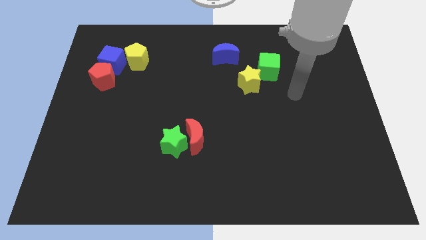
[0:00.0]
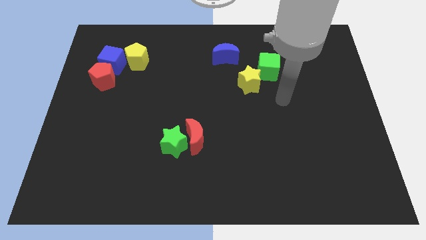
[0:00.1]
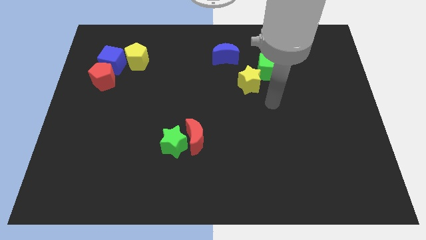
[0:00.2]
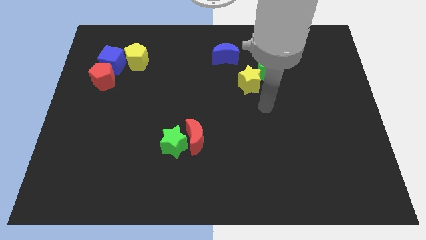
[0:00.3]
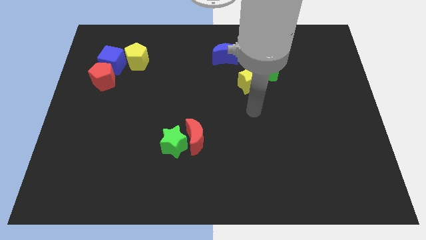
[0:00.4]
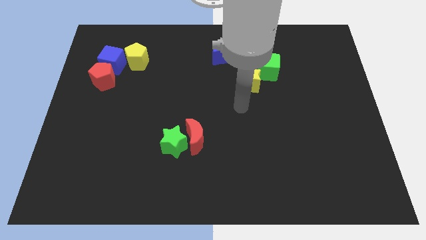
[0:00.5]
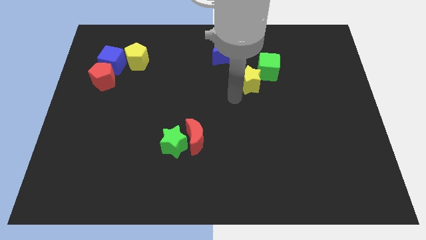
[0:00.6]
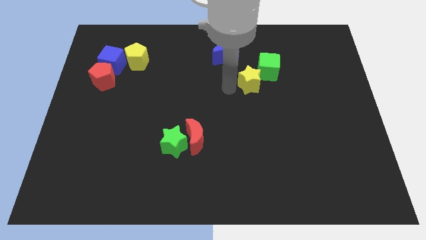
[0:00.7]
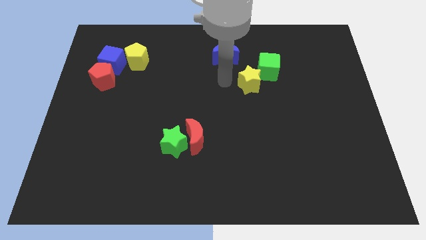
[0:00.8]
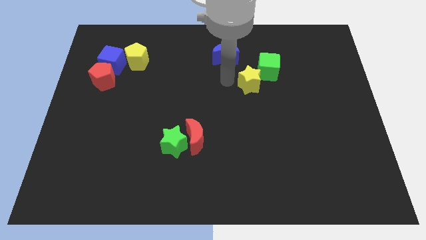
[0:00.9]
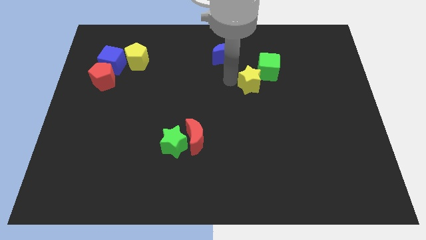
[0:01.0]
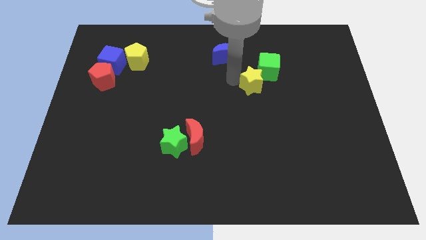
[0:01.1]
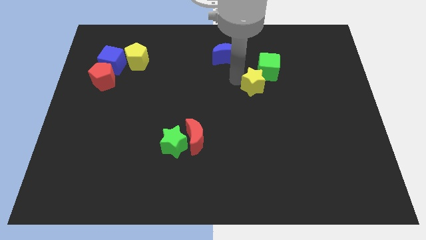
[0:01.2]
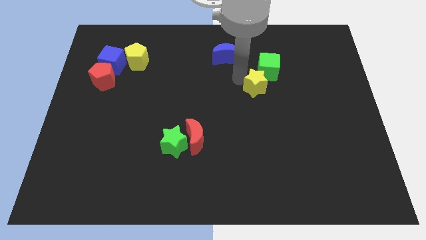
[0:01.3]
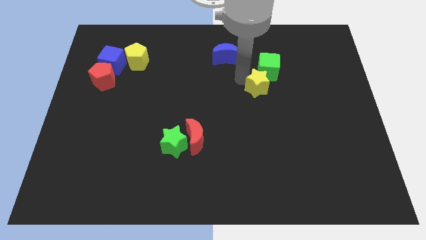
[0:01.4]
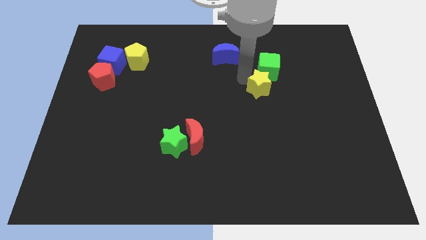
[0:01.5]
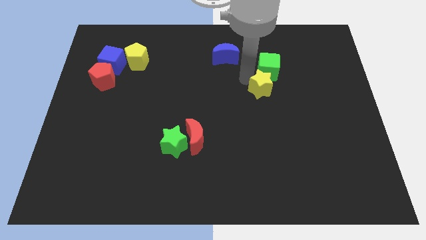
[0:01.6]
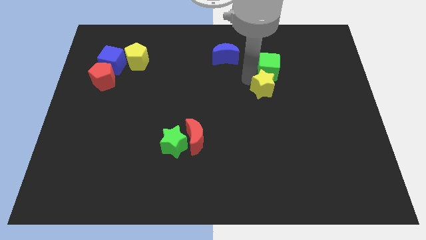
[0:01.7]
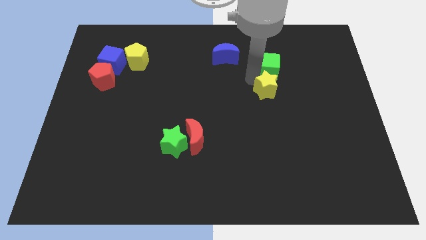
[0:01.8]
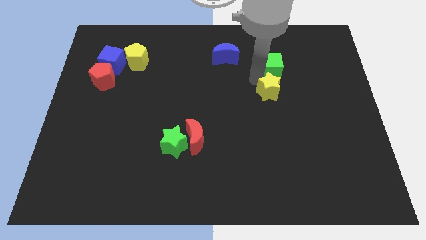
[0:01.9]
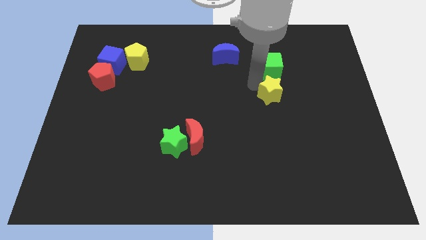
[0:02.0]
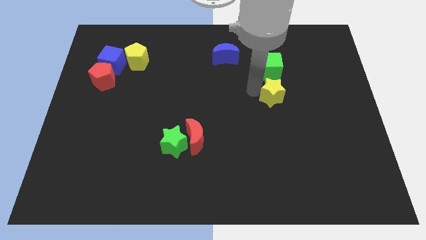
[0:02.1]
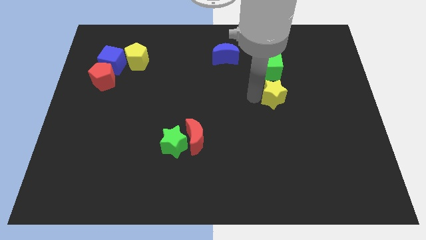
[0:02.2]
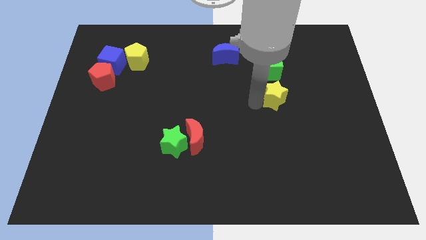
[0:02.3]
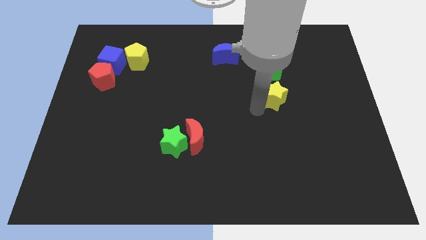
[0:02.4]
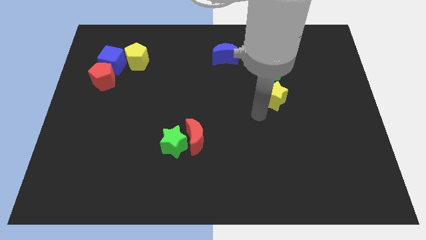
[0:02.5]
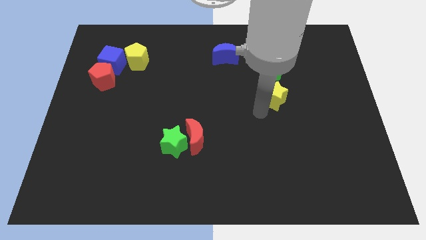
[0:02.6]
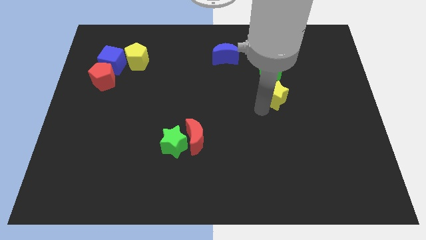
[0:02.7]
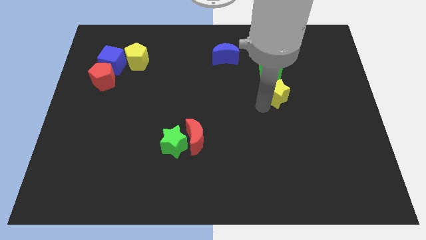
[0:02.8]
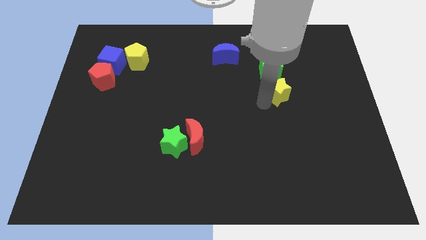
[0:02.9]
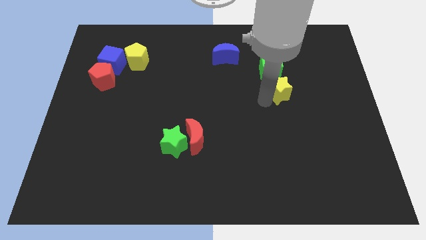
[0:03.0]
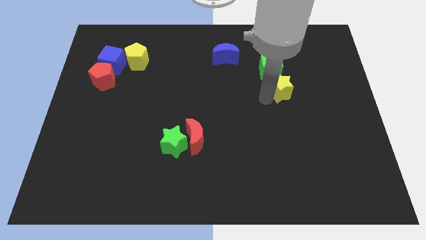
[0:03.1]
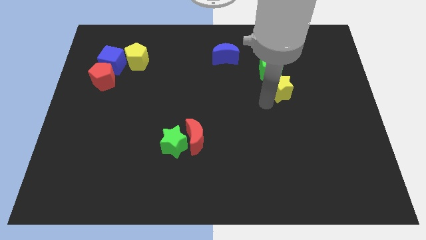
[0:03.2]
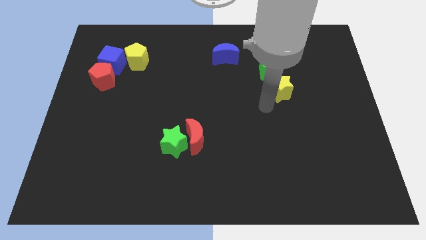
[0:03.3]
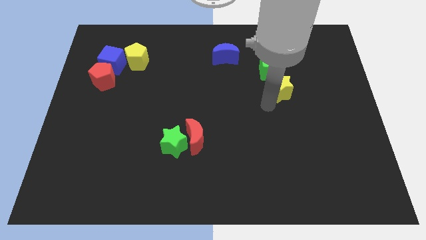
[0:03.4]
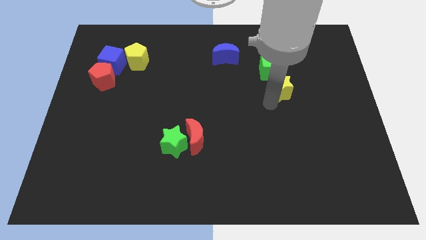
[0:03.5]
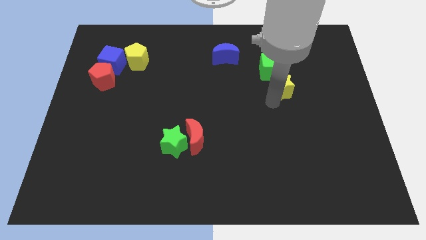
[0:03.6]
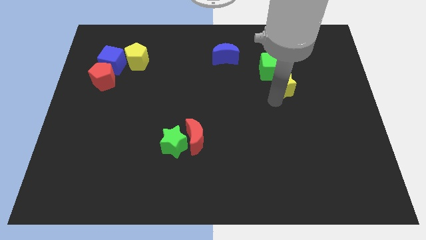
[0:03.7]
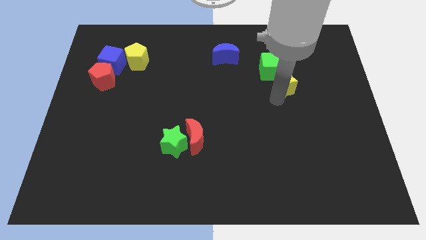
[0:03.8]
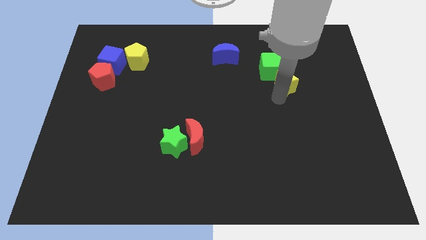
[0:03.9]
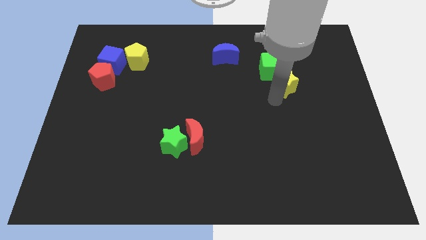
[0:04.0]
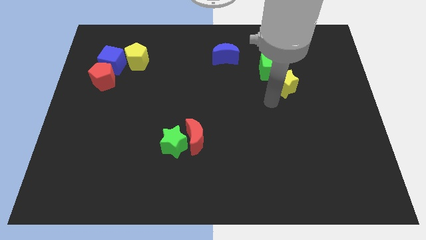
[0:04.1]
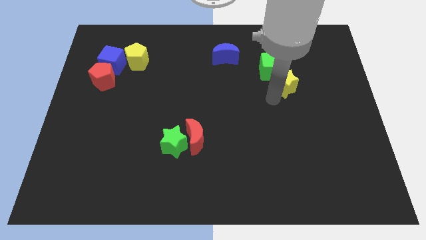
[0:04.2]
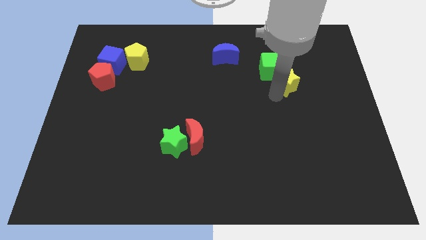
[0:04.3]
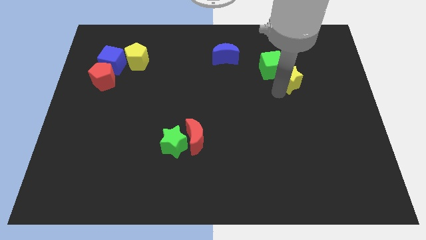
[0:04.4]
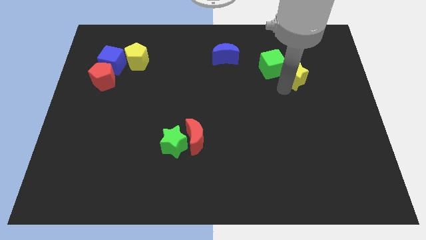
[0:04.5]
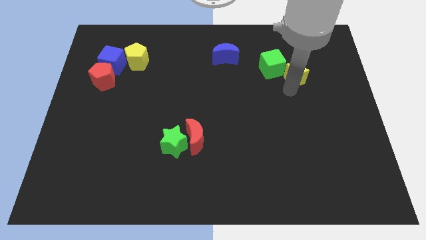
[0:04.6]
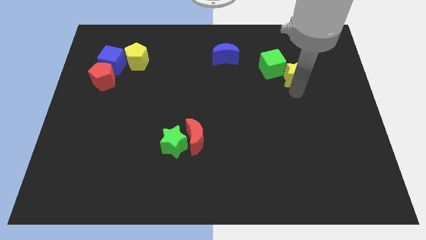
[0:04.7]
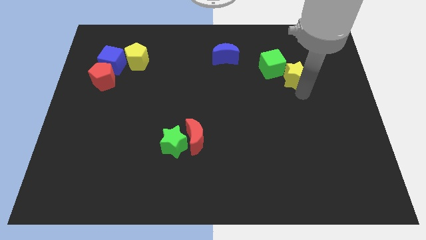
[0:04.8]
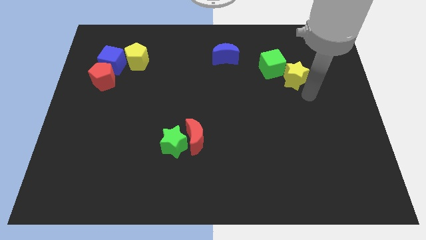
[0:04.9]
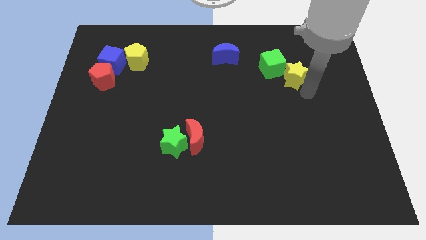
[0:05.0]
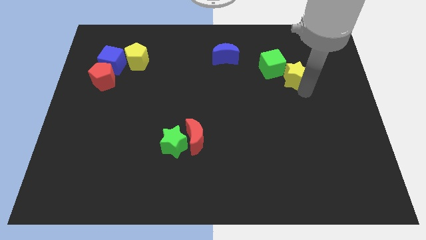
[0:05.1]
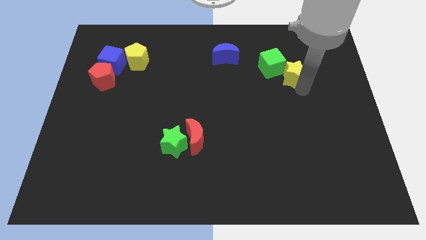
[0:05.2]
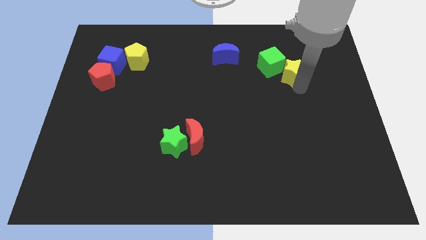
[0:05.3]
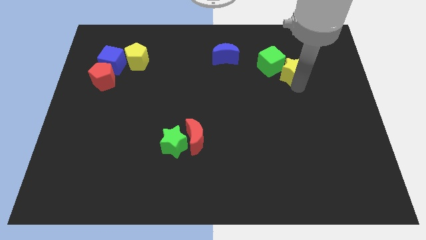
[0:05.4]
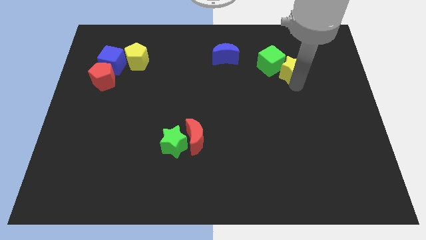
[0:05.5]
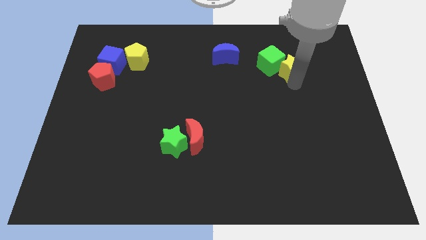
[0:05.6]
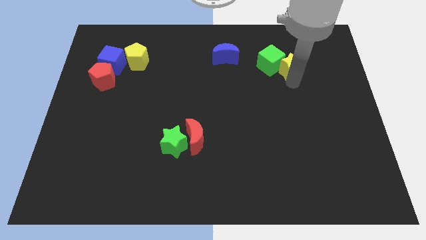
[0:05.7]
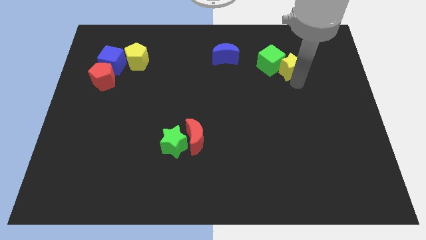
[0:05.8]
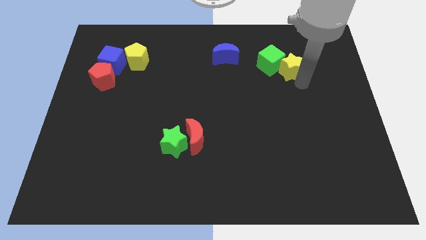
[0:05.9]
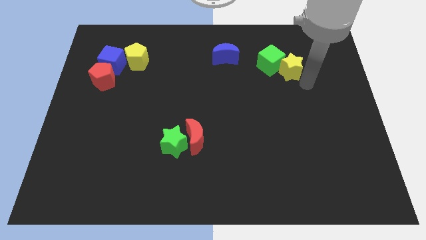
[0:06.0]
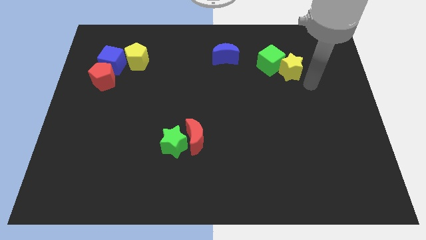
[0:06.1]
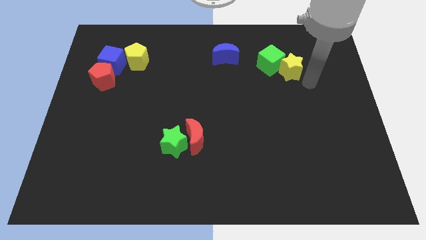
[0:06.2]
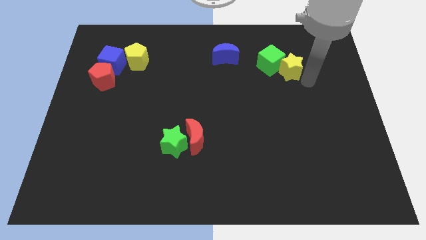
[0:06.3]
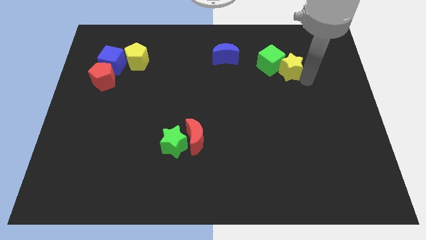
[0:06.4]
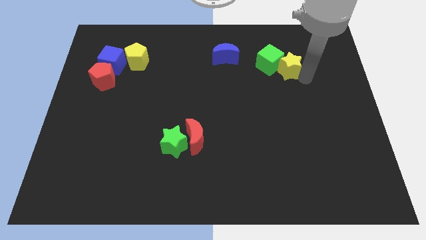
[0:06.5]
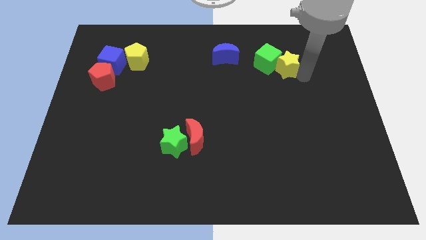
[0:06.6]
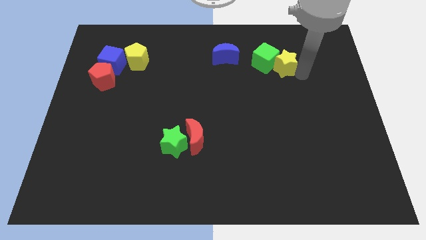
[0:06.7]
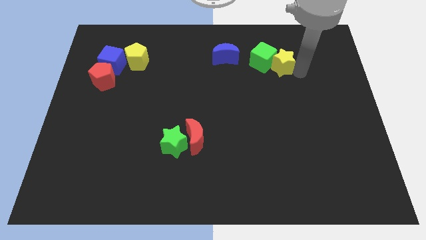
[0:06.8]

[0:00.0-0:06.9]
push the yellow star just right of the blue moon
